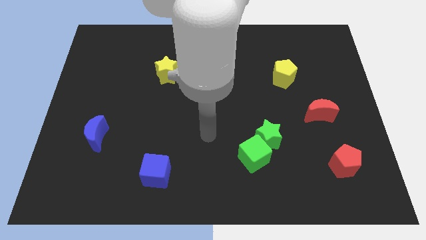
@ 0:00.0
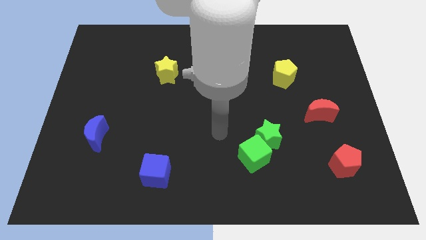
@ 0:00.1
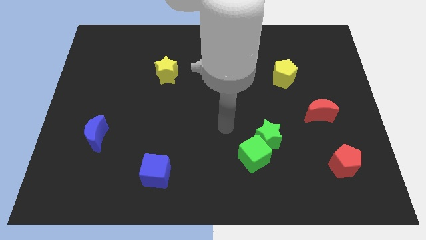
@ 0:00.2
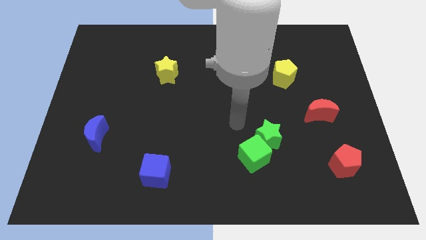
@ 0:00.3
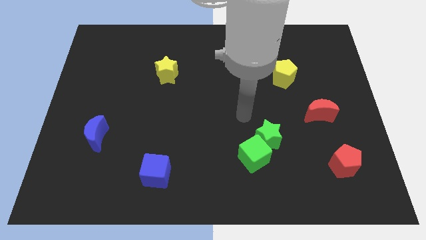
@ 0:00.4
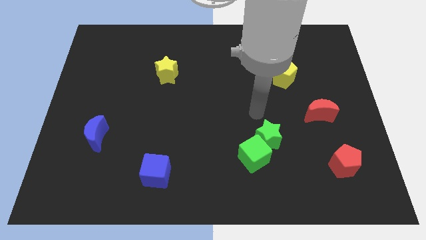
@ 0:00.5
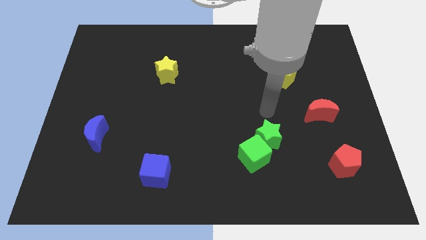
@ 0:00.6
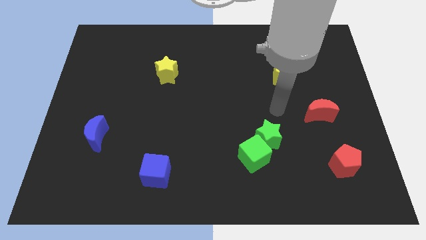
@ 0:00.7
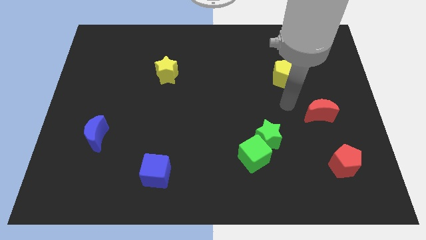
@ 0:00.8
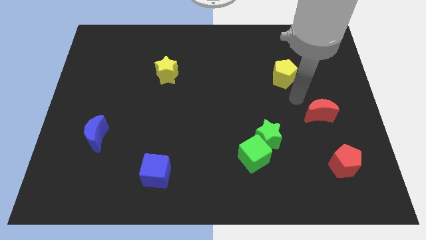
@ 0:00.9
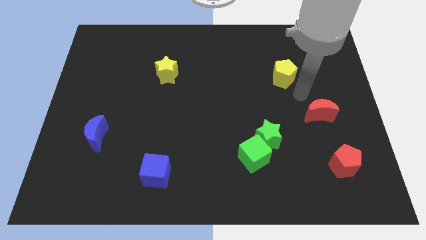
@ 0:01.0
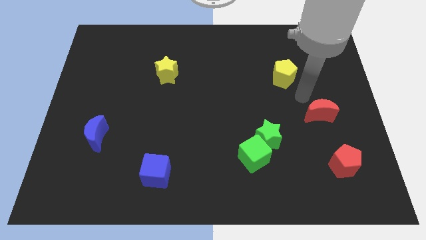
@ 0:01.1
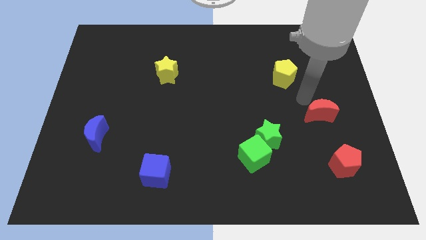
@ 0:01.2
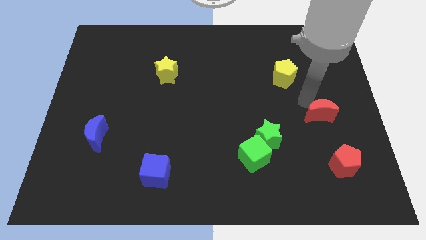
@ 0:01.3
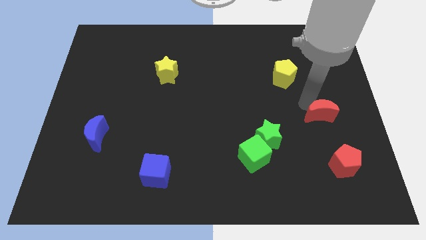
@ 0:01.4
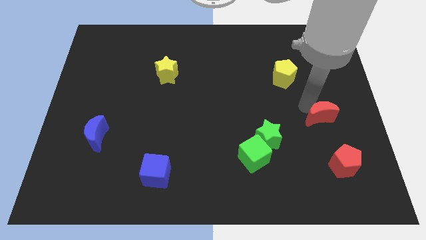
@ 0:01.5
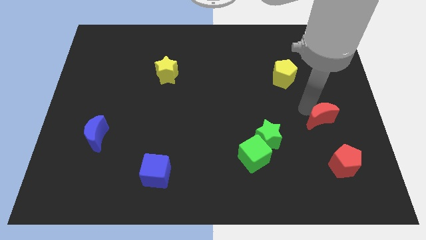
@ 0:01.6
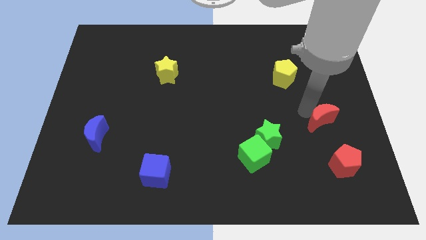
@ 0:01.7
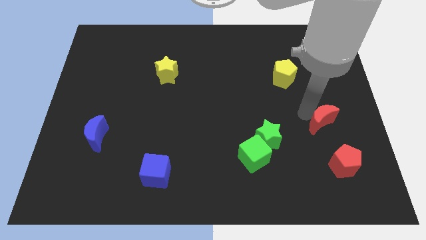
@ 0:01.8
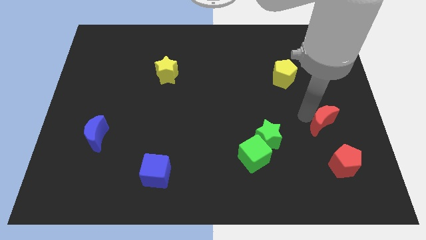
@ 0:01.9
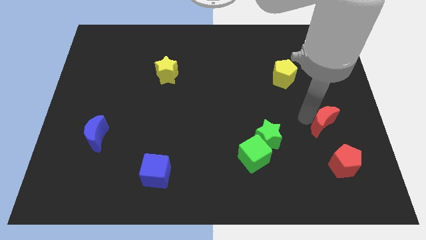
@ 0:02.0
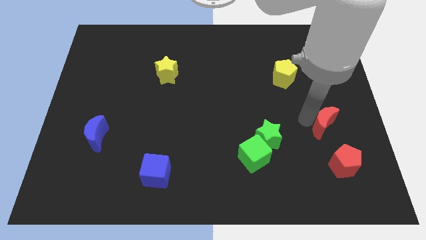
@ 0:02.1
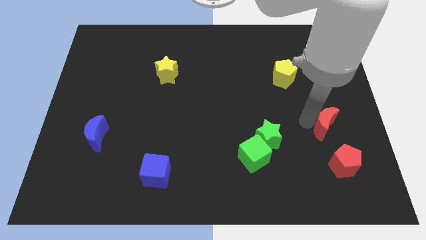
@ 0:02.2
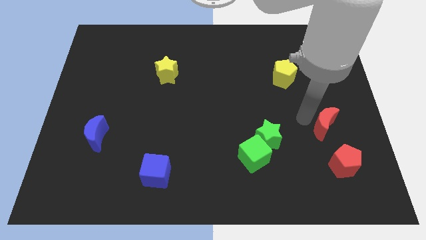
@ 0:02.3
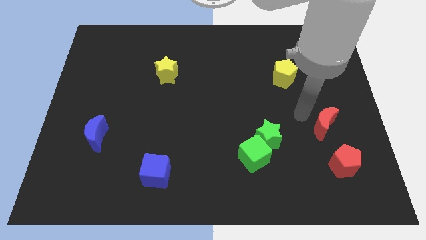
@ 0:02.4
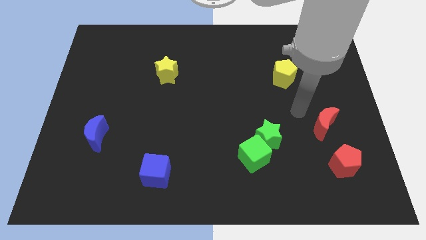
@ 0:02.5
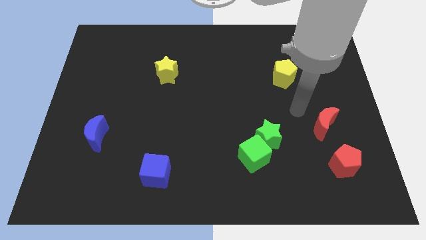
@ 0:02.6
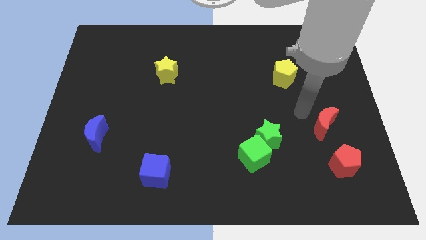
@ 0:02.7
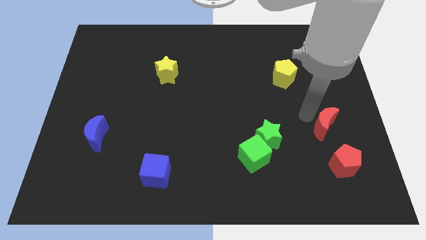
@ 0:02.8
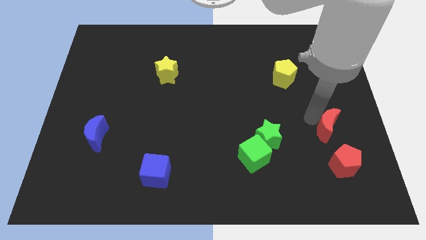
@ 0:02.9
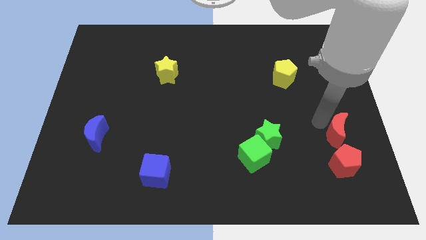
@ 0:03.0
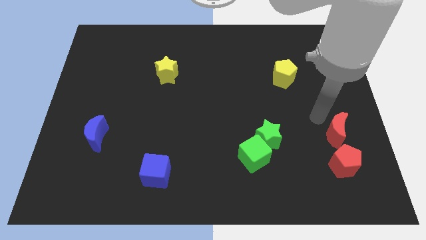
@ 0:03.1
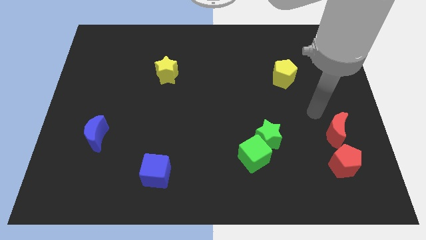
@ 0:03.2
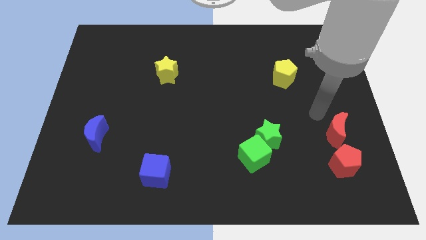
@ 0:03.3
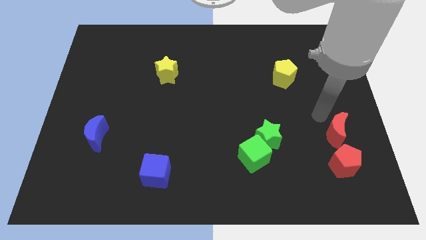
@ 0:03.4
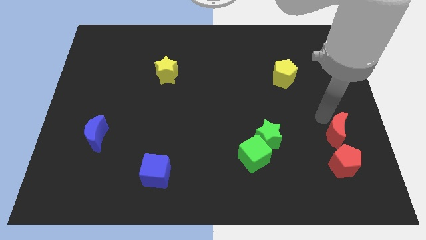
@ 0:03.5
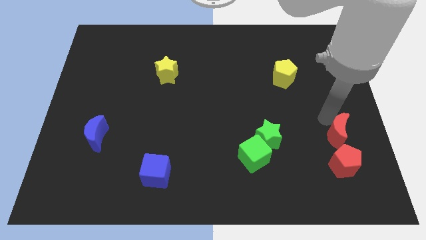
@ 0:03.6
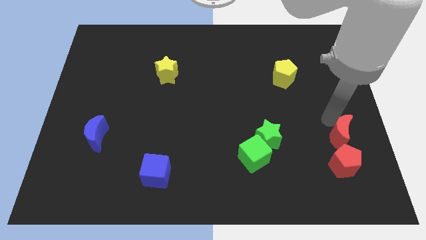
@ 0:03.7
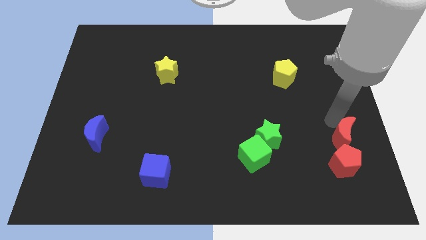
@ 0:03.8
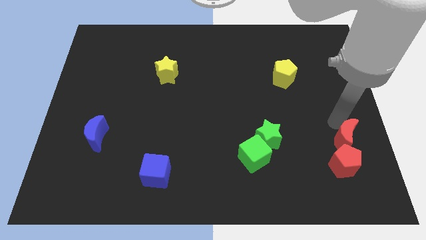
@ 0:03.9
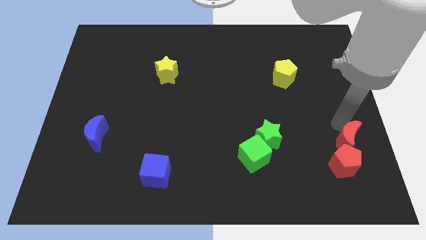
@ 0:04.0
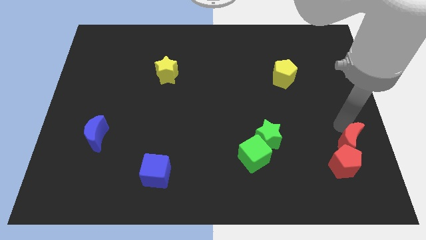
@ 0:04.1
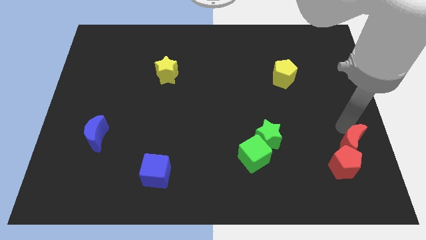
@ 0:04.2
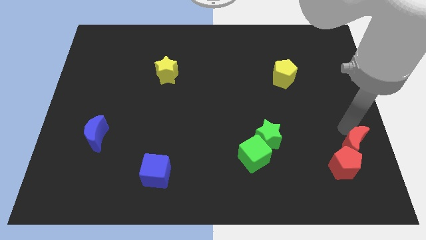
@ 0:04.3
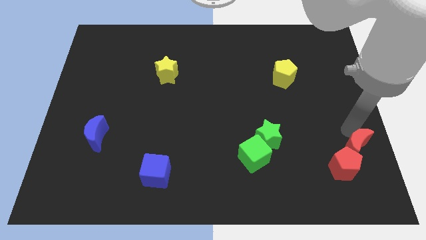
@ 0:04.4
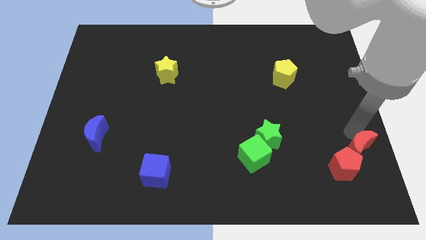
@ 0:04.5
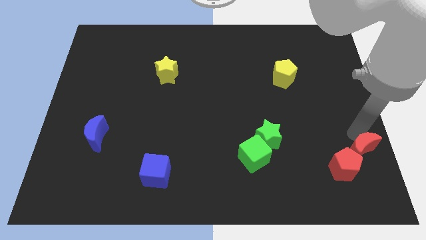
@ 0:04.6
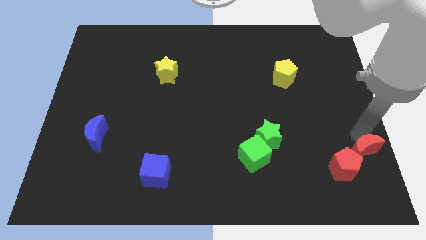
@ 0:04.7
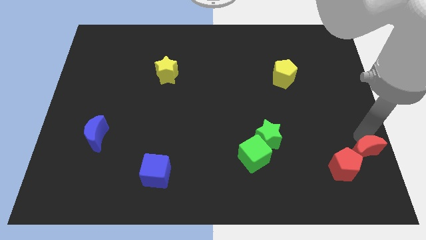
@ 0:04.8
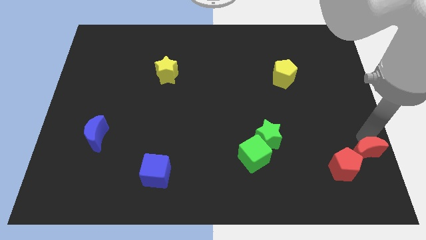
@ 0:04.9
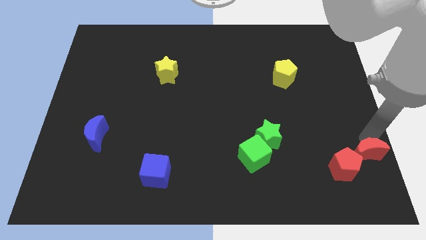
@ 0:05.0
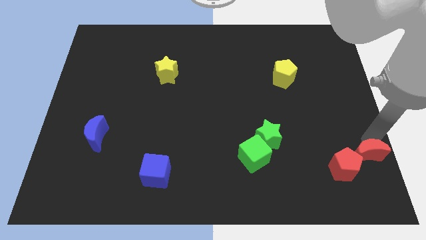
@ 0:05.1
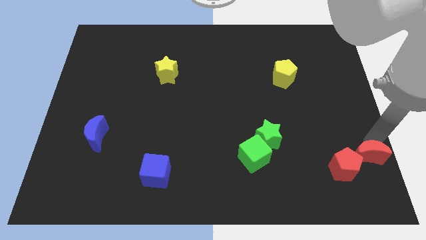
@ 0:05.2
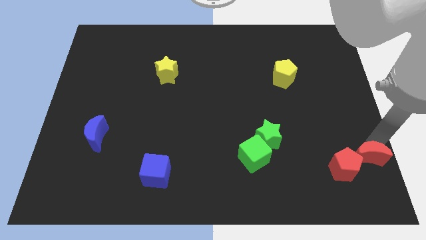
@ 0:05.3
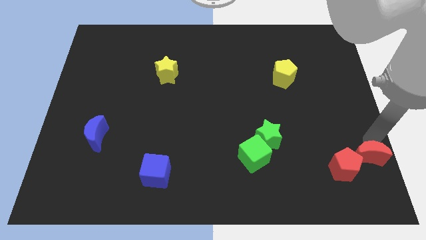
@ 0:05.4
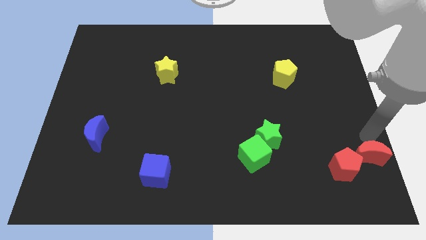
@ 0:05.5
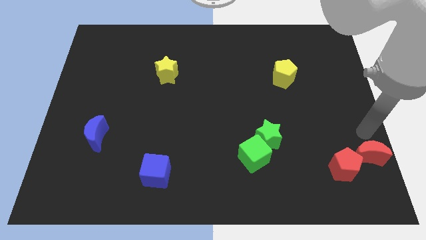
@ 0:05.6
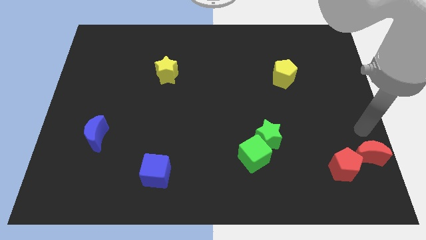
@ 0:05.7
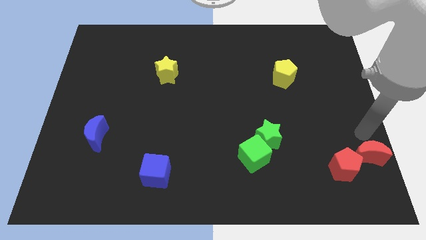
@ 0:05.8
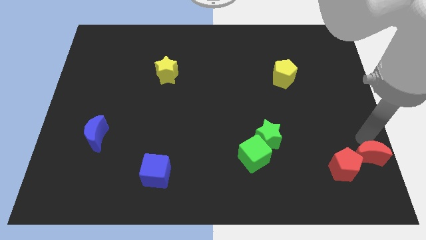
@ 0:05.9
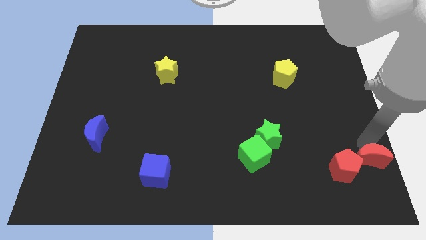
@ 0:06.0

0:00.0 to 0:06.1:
move the red moon to the lower right corner
